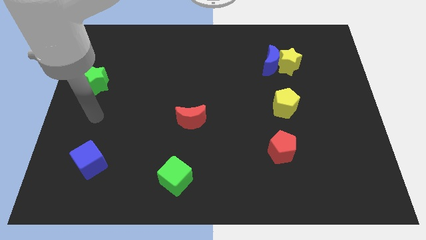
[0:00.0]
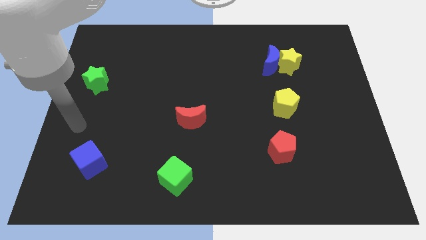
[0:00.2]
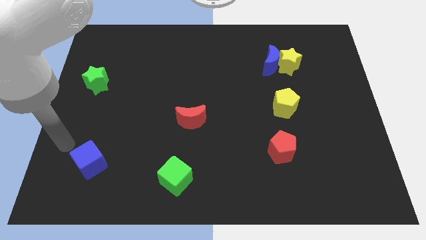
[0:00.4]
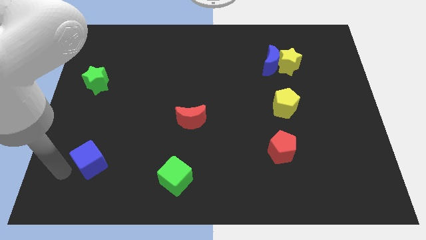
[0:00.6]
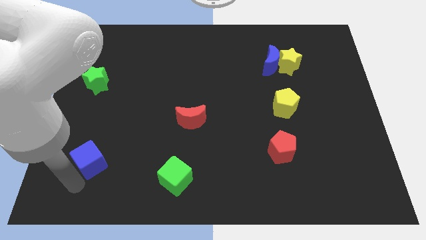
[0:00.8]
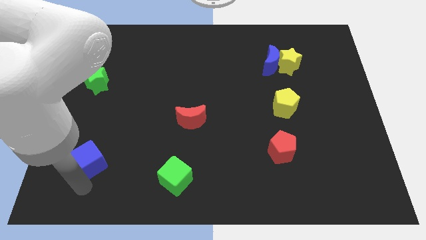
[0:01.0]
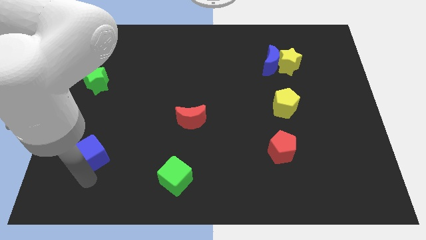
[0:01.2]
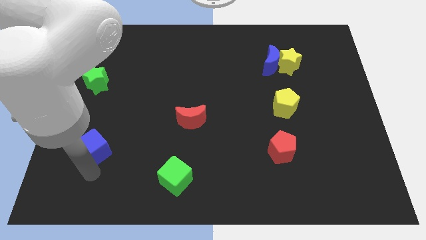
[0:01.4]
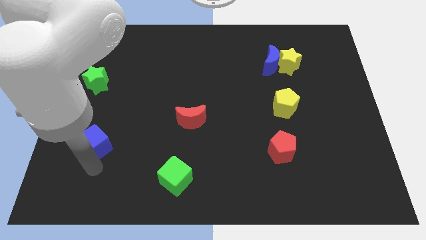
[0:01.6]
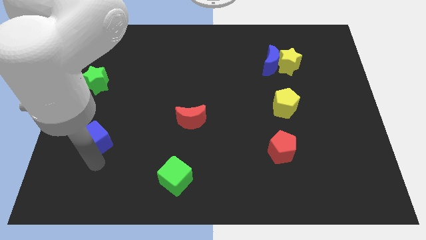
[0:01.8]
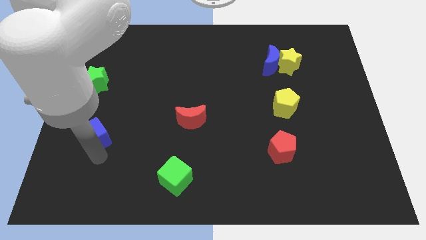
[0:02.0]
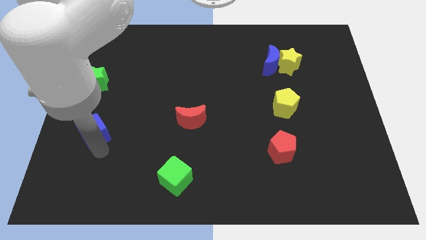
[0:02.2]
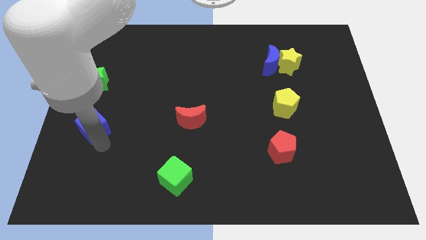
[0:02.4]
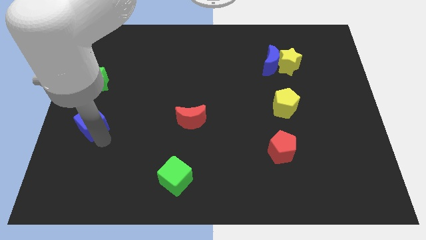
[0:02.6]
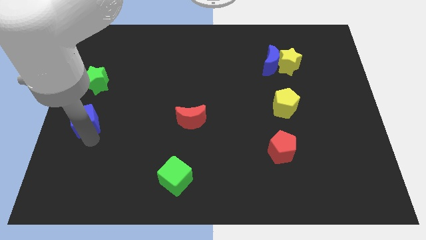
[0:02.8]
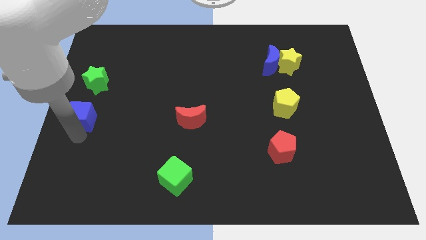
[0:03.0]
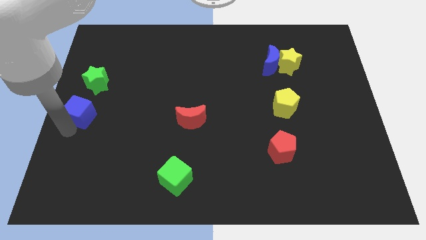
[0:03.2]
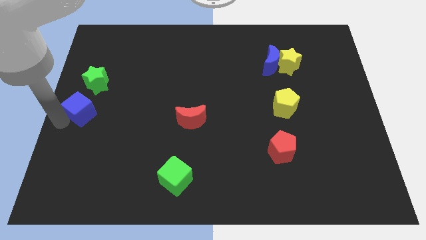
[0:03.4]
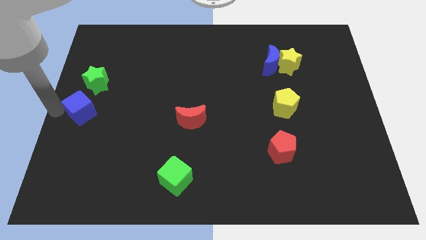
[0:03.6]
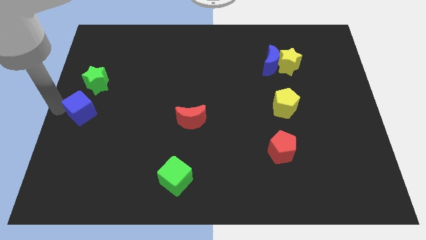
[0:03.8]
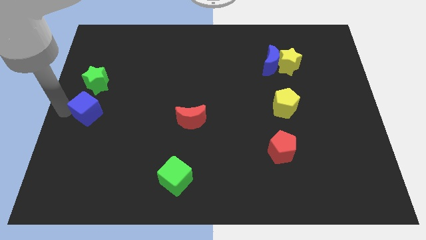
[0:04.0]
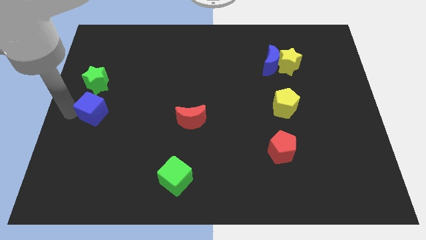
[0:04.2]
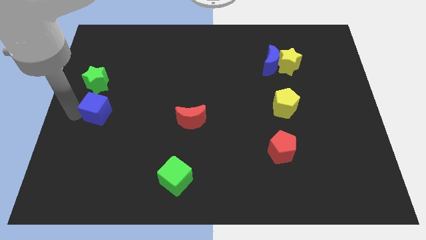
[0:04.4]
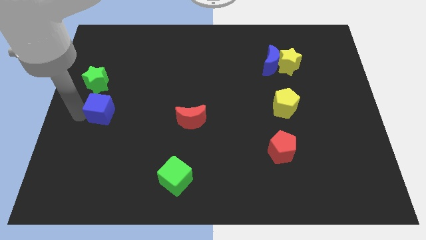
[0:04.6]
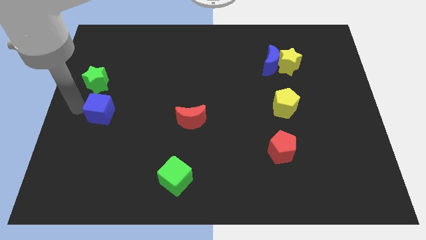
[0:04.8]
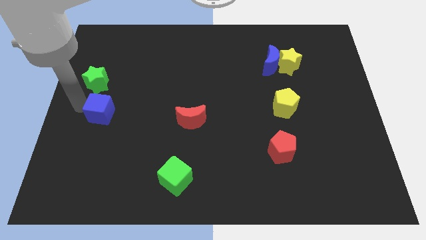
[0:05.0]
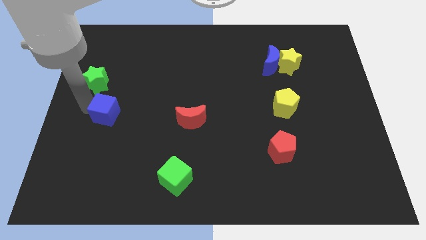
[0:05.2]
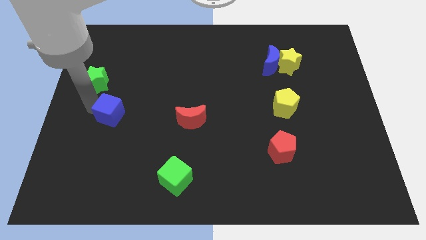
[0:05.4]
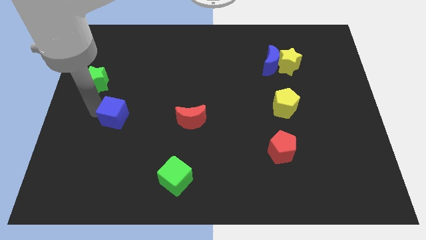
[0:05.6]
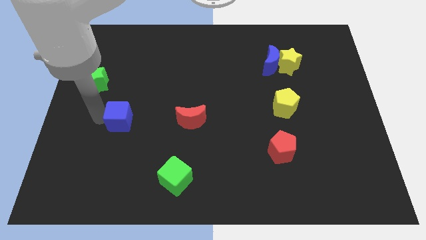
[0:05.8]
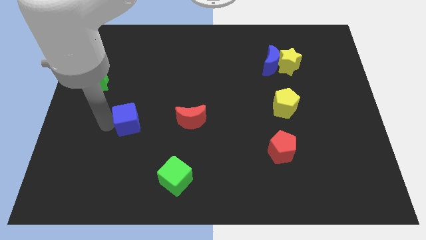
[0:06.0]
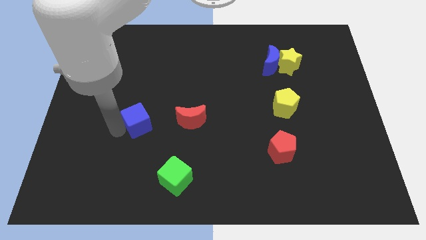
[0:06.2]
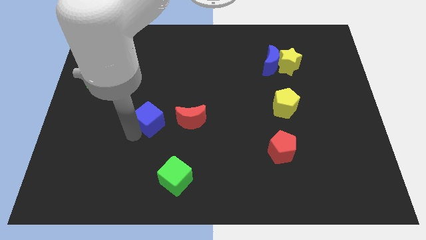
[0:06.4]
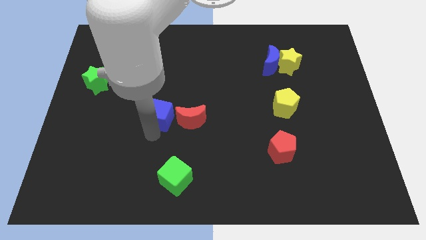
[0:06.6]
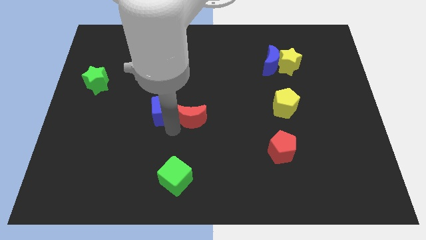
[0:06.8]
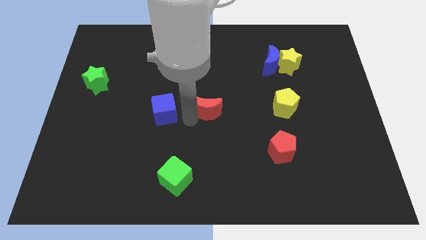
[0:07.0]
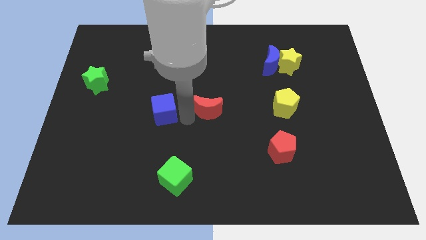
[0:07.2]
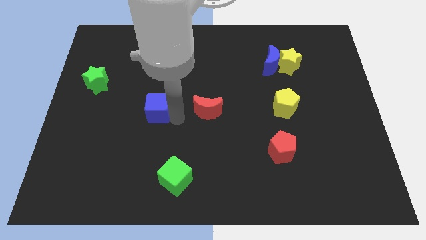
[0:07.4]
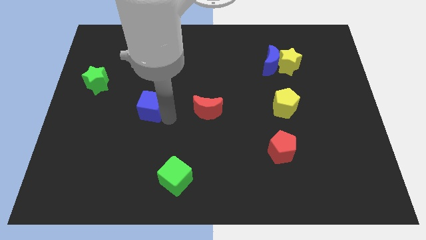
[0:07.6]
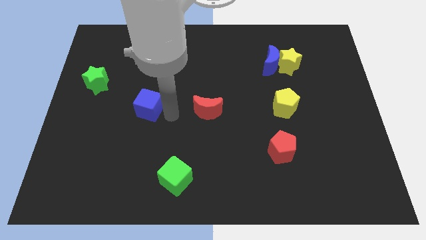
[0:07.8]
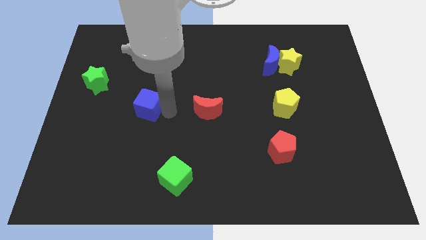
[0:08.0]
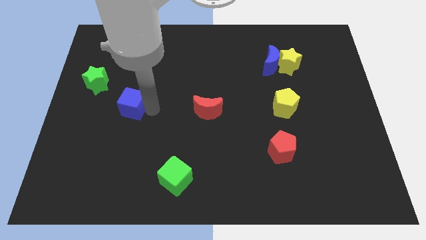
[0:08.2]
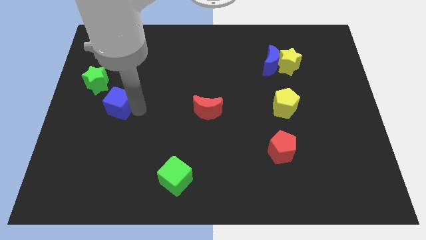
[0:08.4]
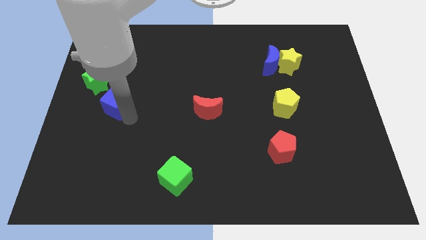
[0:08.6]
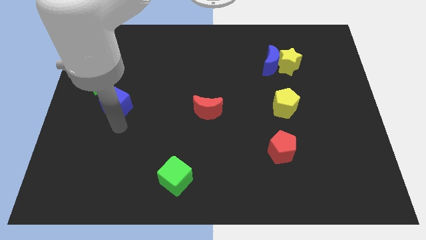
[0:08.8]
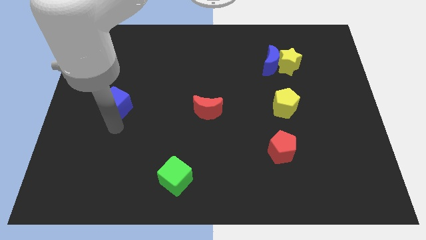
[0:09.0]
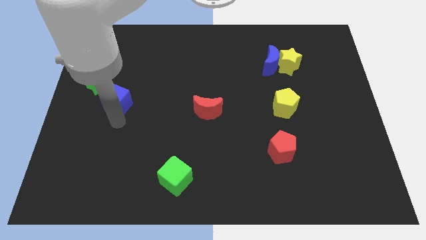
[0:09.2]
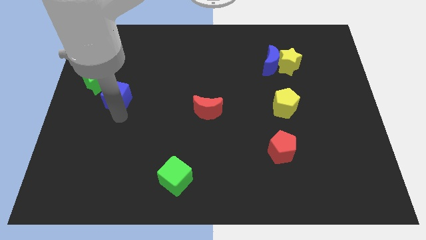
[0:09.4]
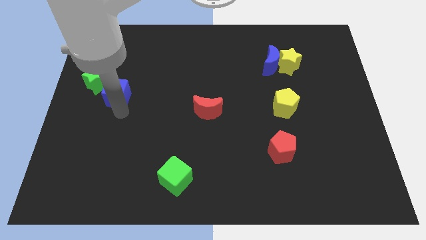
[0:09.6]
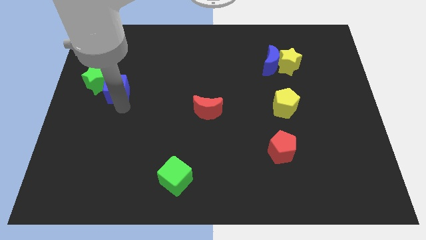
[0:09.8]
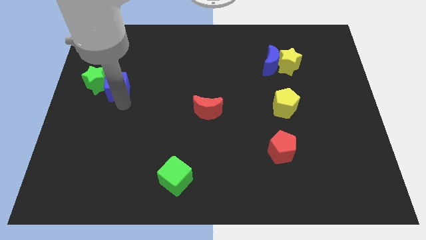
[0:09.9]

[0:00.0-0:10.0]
push the blue cube up

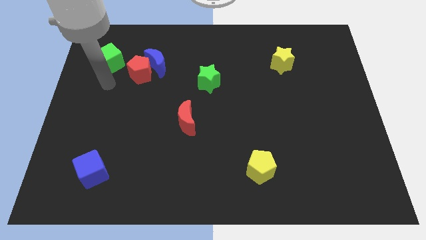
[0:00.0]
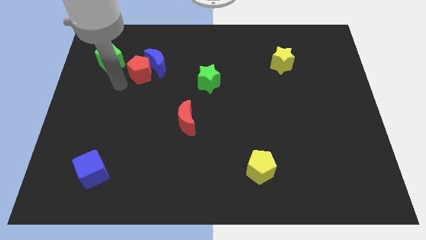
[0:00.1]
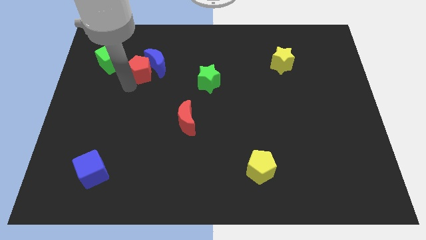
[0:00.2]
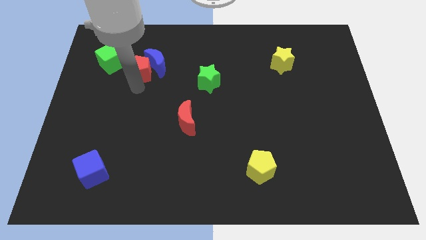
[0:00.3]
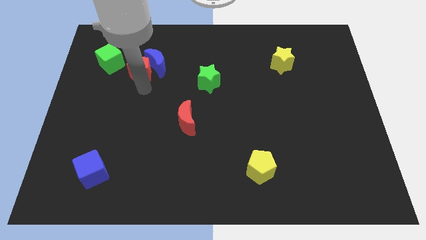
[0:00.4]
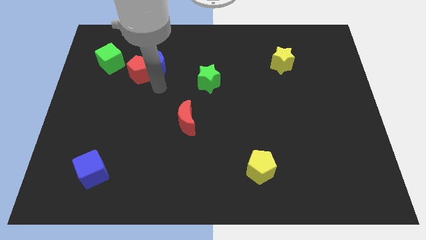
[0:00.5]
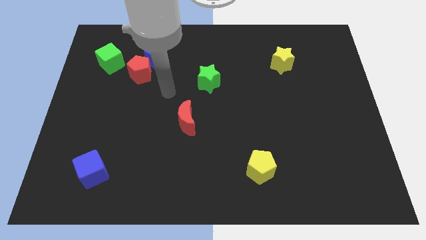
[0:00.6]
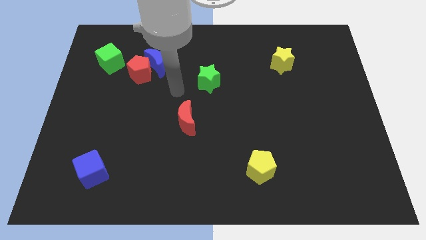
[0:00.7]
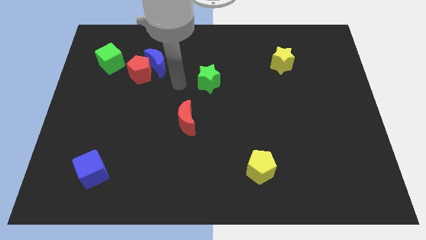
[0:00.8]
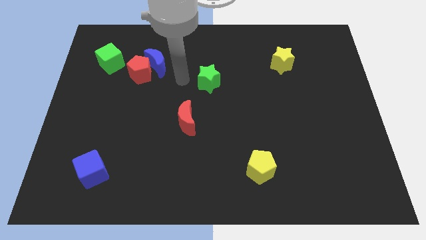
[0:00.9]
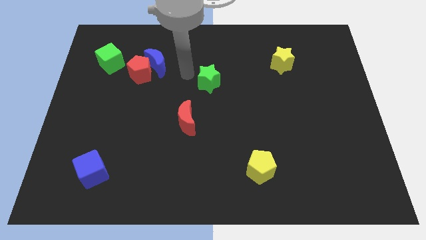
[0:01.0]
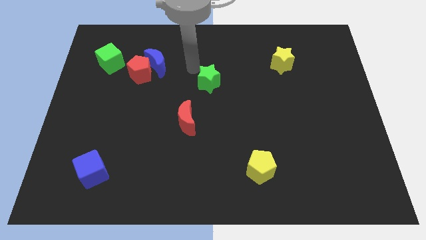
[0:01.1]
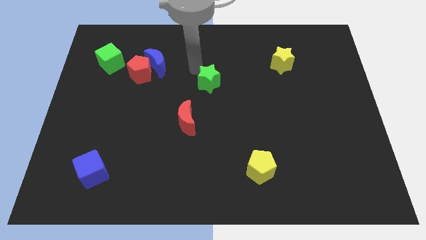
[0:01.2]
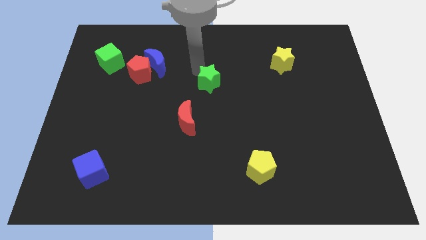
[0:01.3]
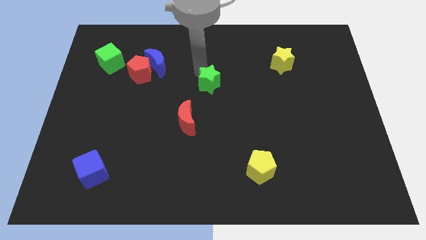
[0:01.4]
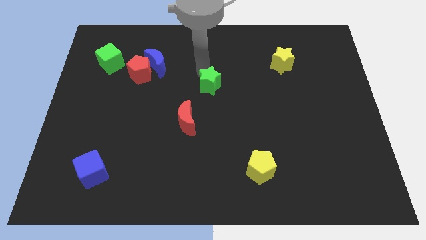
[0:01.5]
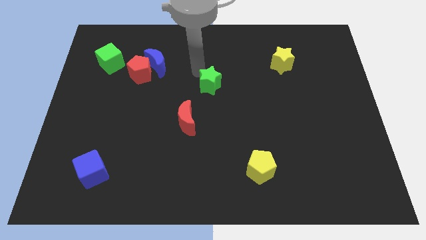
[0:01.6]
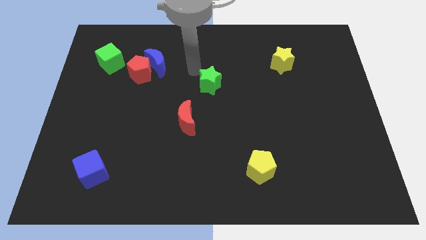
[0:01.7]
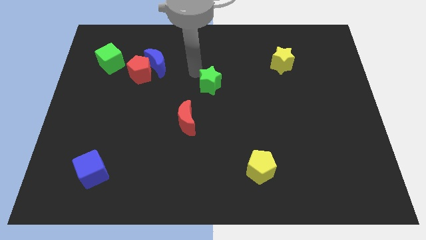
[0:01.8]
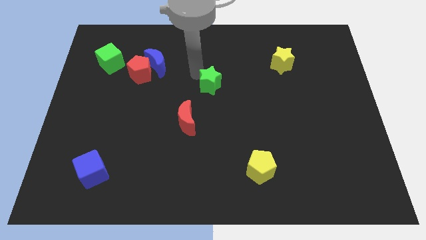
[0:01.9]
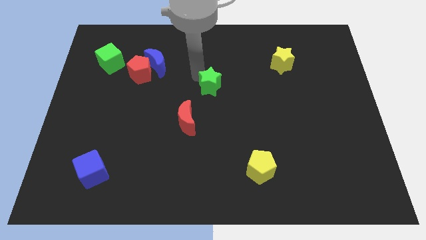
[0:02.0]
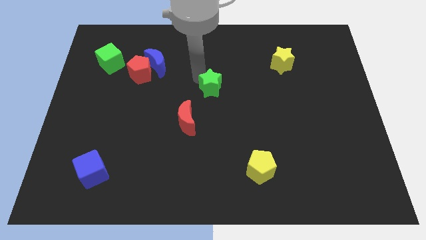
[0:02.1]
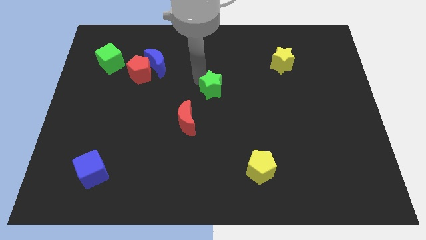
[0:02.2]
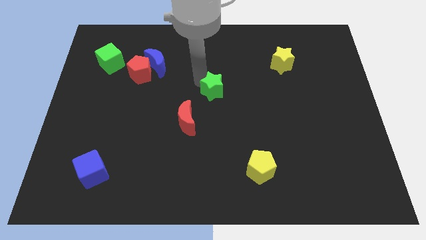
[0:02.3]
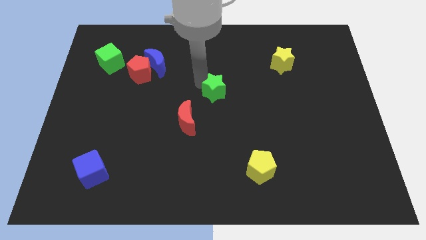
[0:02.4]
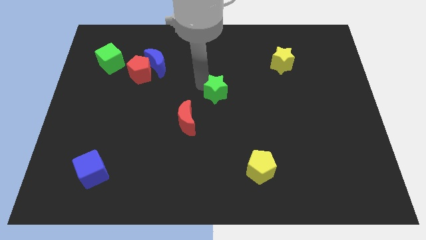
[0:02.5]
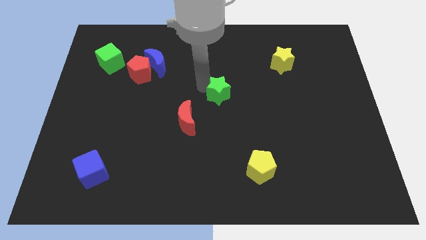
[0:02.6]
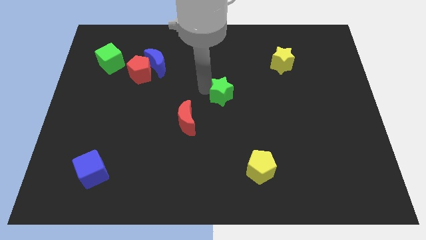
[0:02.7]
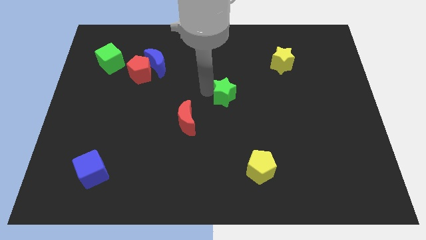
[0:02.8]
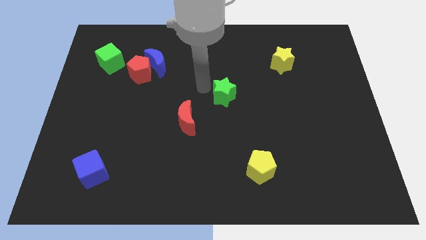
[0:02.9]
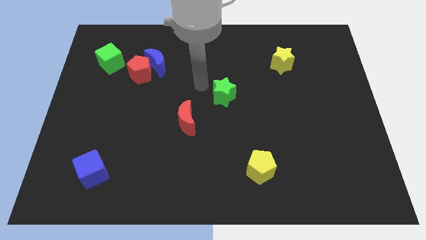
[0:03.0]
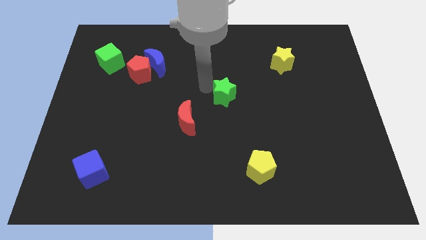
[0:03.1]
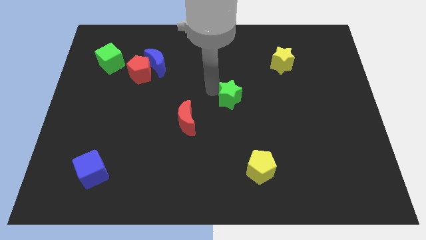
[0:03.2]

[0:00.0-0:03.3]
move the green star downwards and right a bit
